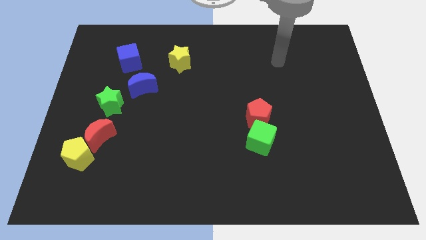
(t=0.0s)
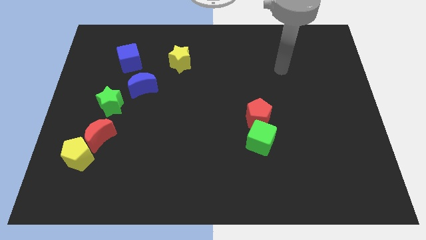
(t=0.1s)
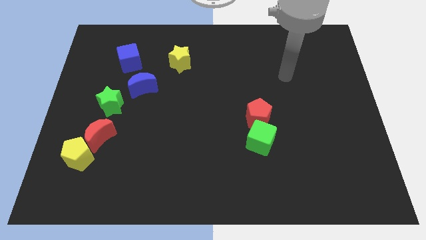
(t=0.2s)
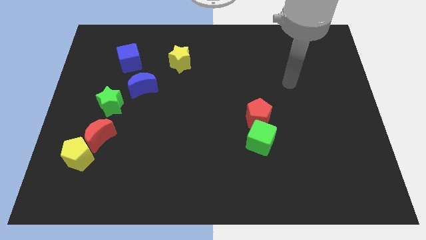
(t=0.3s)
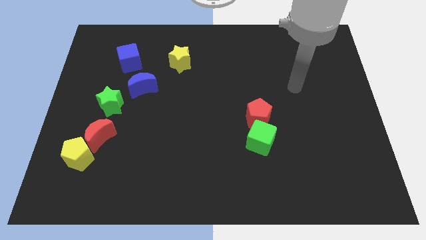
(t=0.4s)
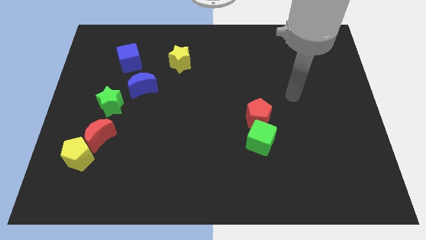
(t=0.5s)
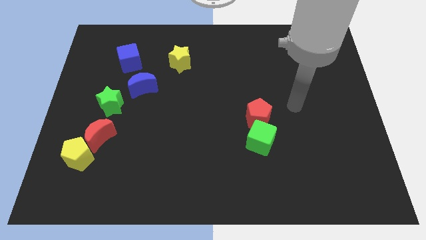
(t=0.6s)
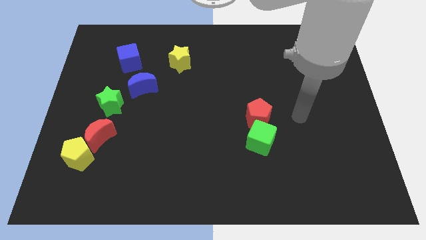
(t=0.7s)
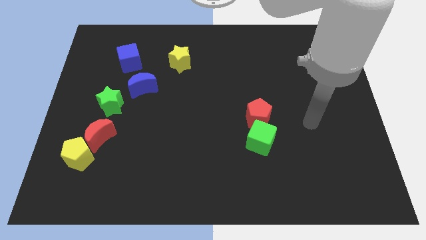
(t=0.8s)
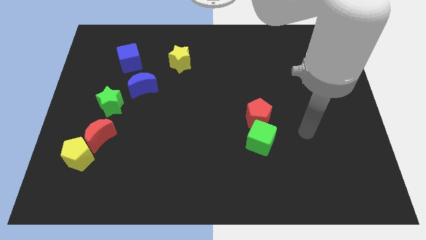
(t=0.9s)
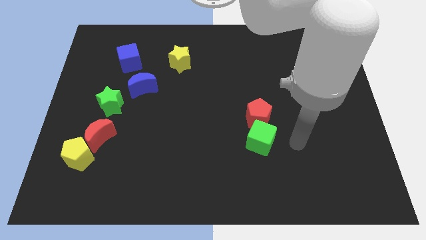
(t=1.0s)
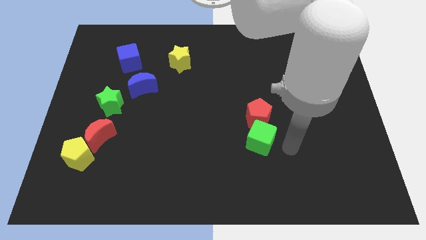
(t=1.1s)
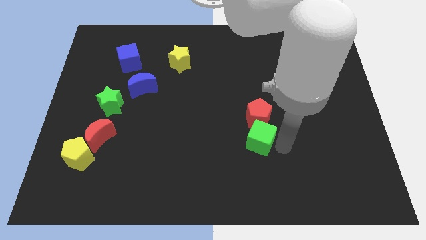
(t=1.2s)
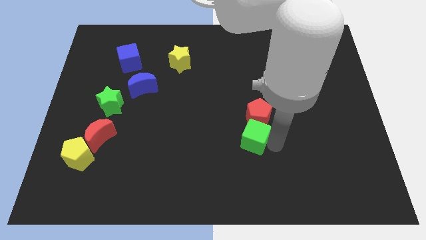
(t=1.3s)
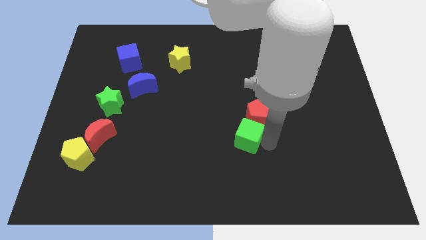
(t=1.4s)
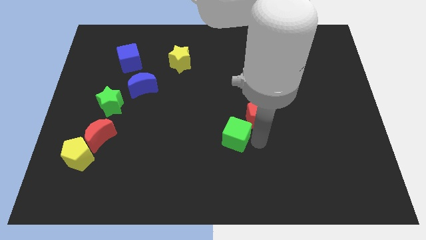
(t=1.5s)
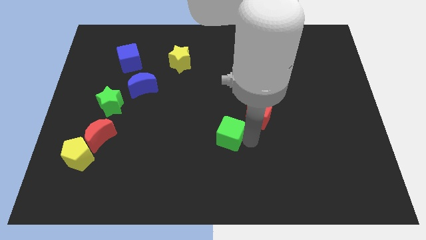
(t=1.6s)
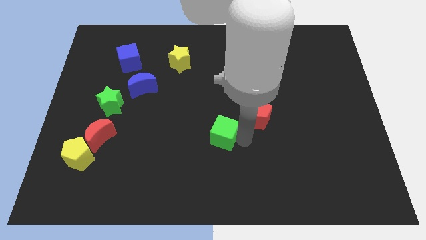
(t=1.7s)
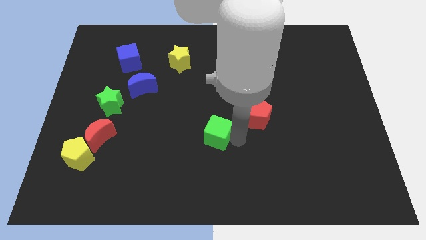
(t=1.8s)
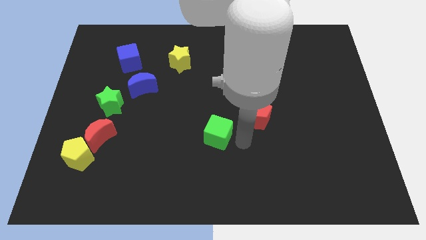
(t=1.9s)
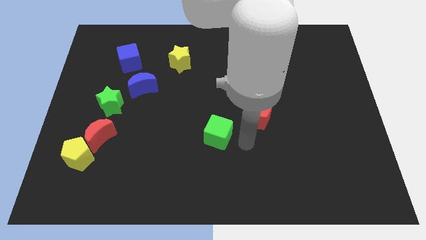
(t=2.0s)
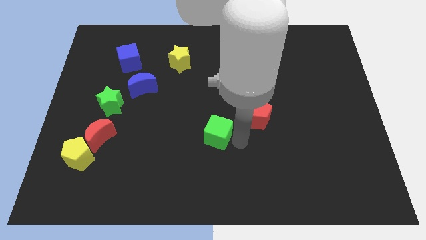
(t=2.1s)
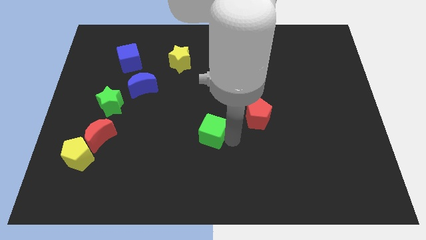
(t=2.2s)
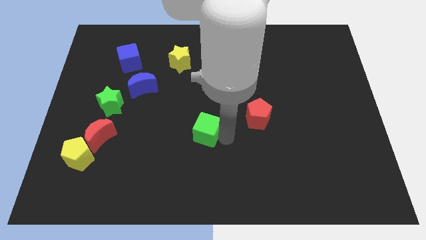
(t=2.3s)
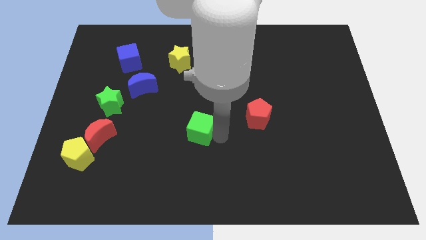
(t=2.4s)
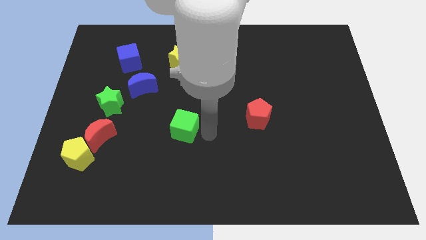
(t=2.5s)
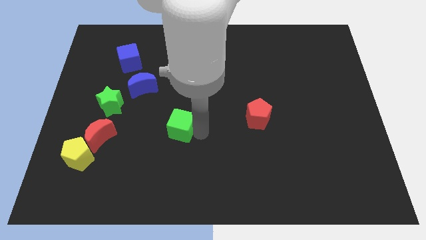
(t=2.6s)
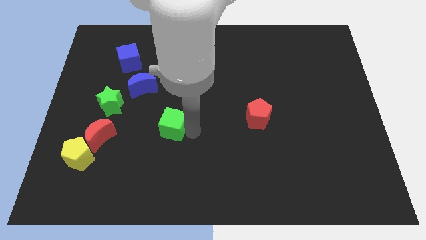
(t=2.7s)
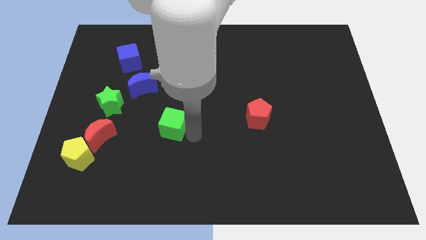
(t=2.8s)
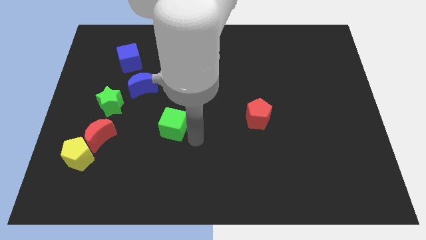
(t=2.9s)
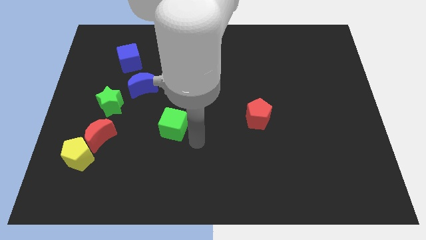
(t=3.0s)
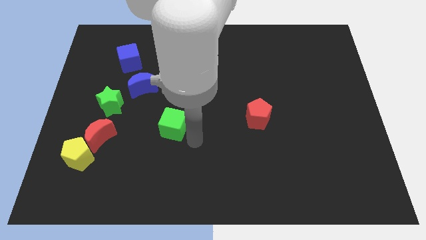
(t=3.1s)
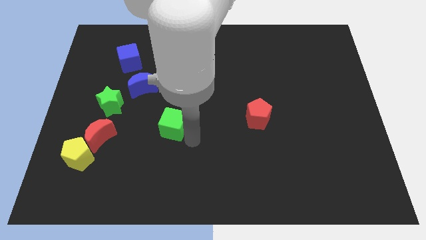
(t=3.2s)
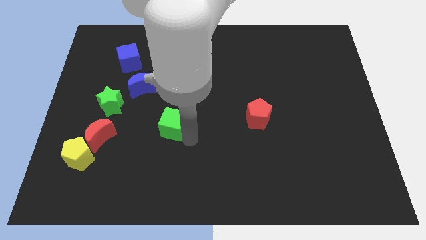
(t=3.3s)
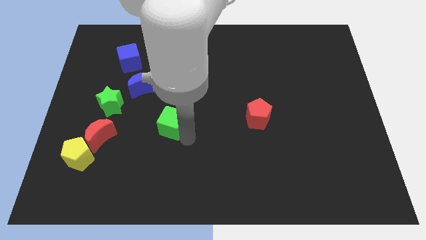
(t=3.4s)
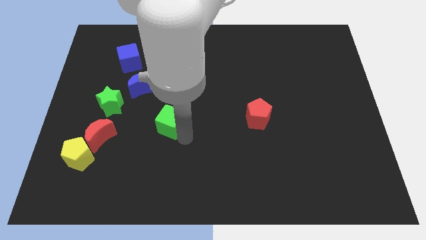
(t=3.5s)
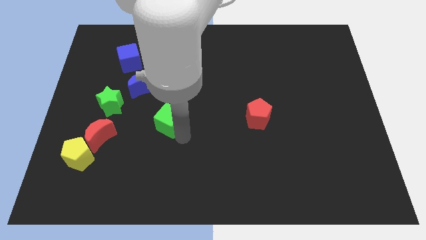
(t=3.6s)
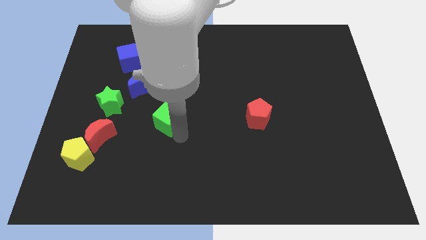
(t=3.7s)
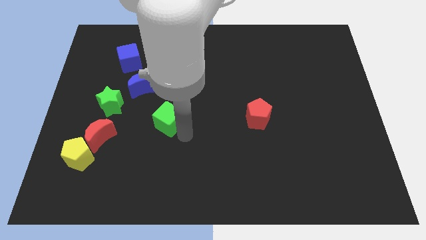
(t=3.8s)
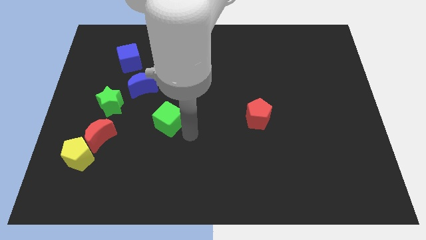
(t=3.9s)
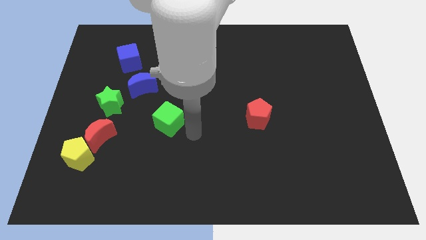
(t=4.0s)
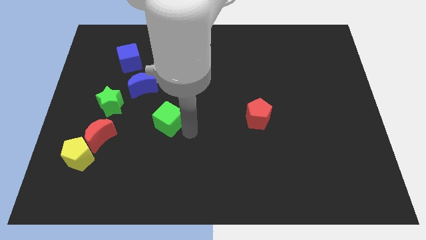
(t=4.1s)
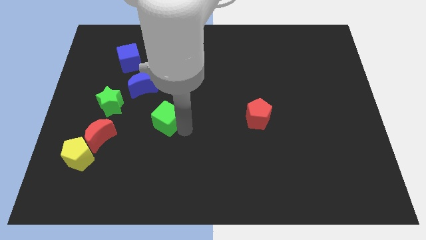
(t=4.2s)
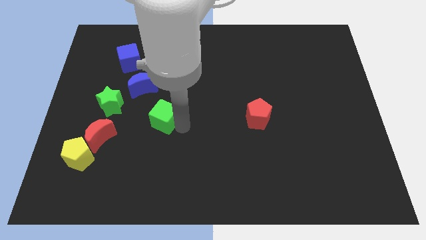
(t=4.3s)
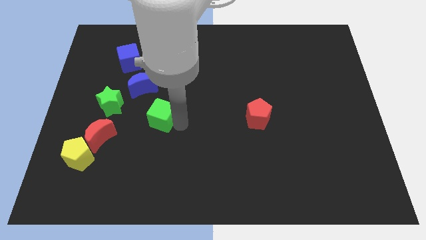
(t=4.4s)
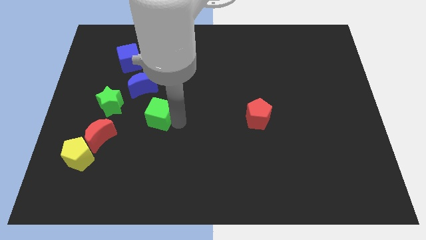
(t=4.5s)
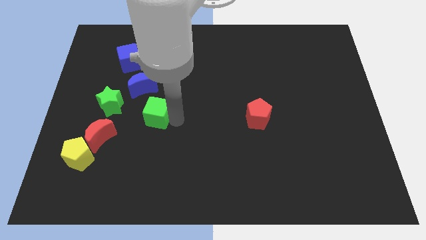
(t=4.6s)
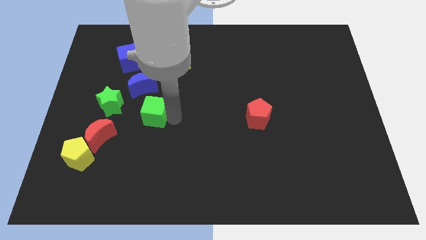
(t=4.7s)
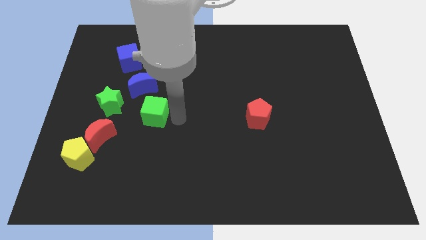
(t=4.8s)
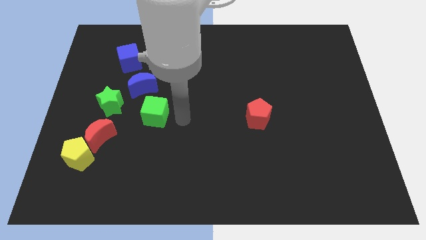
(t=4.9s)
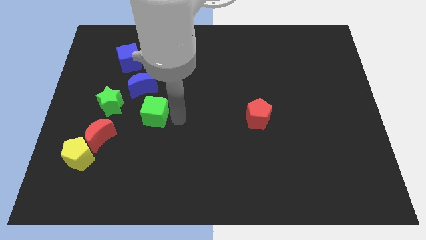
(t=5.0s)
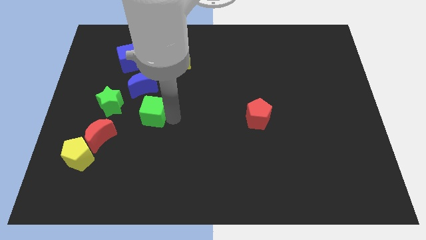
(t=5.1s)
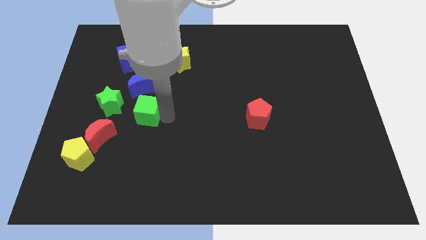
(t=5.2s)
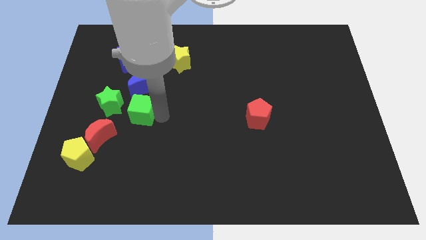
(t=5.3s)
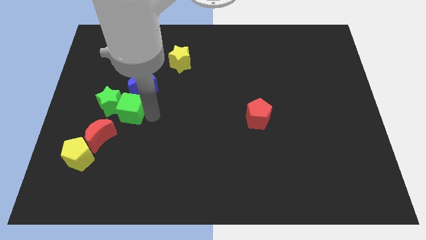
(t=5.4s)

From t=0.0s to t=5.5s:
move the green cube close to the green star

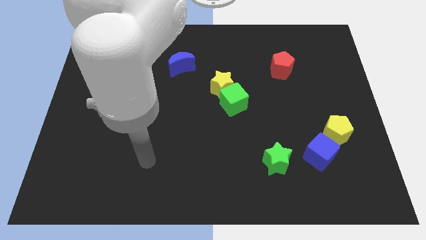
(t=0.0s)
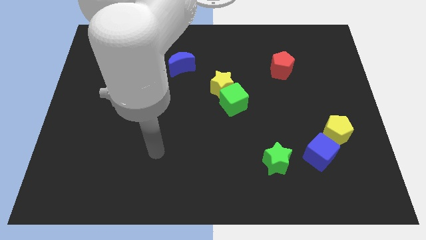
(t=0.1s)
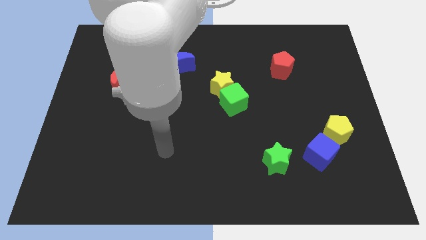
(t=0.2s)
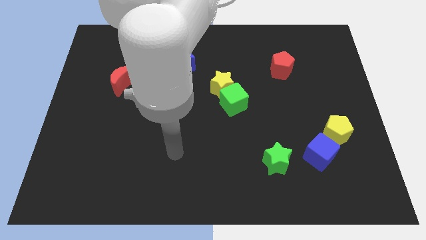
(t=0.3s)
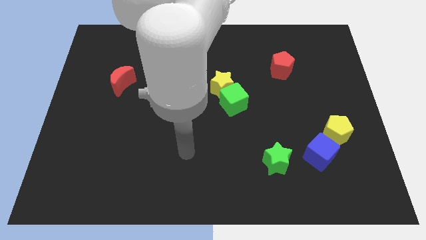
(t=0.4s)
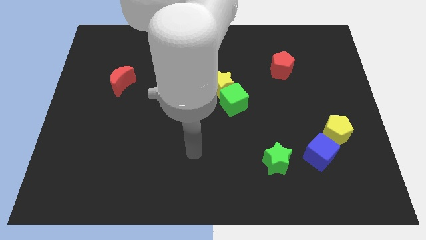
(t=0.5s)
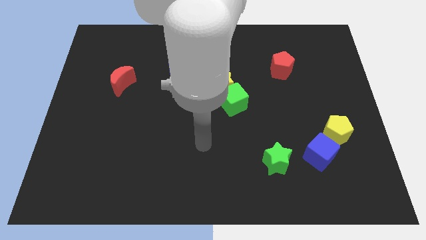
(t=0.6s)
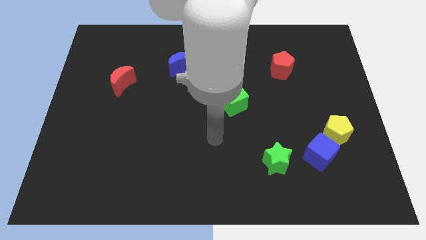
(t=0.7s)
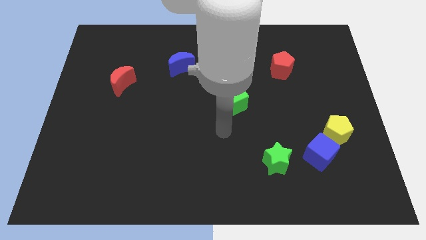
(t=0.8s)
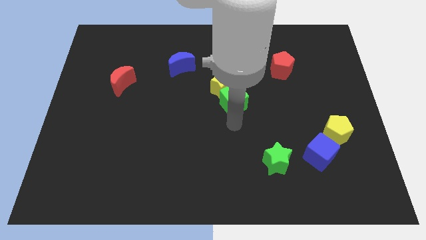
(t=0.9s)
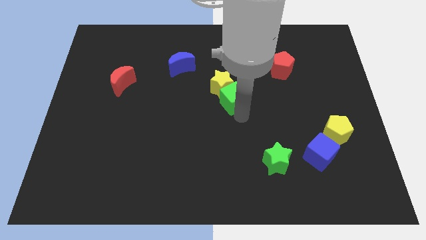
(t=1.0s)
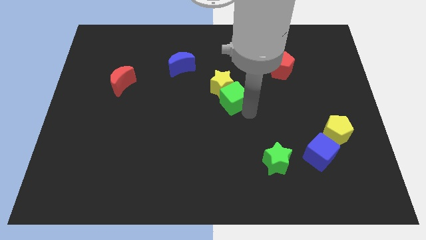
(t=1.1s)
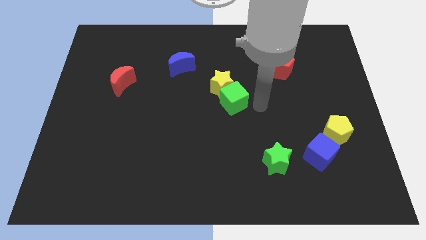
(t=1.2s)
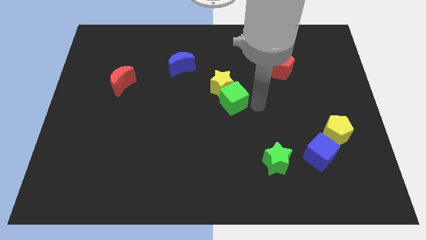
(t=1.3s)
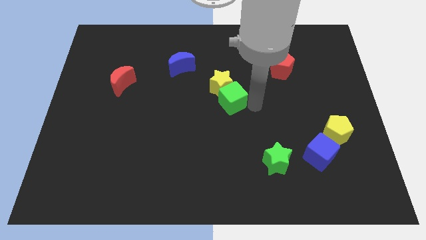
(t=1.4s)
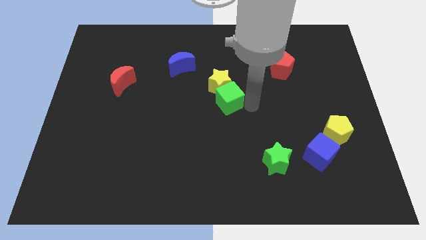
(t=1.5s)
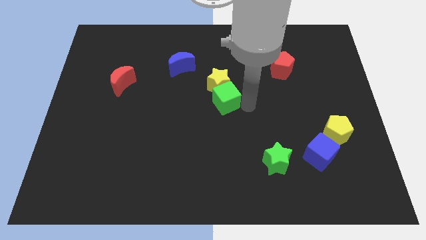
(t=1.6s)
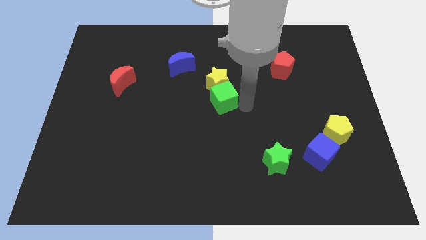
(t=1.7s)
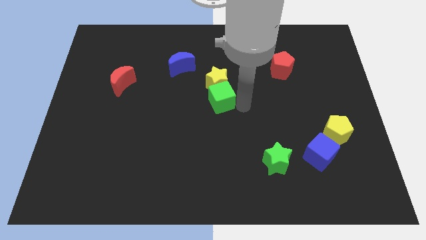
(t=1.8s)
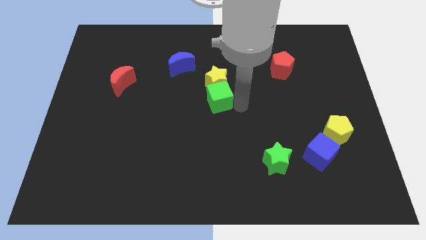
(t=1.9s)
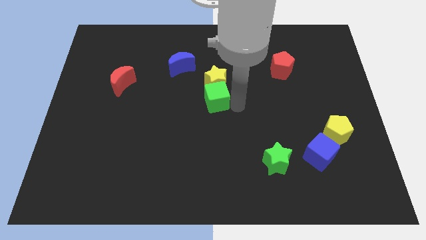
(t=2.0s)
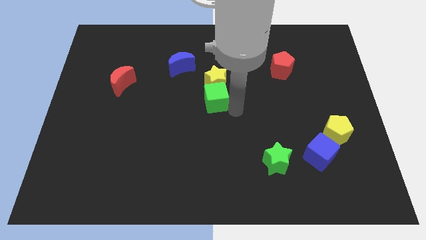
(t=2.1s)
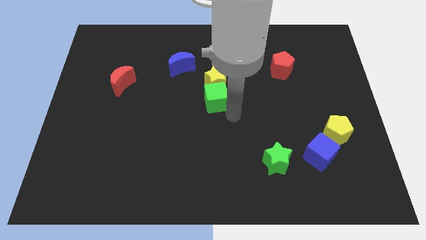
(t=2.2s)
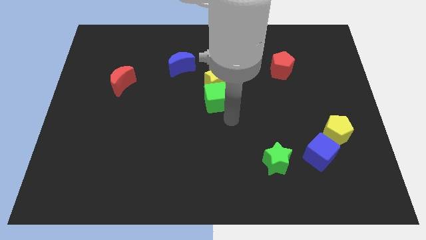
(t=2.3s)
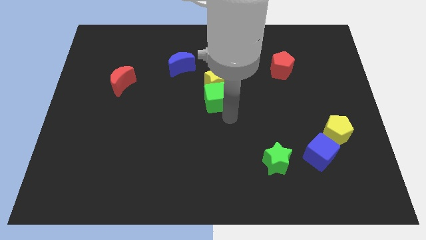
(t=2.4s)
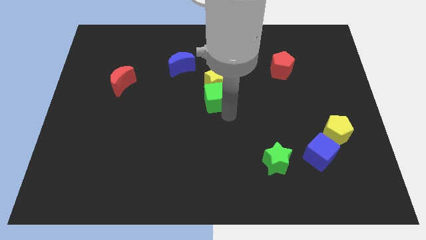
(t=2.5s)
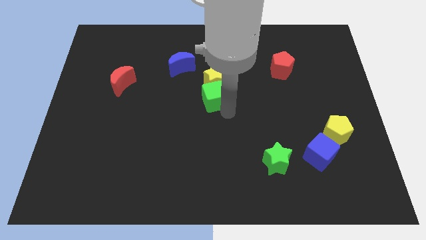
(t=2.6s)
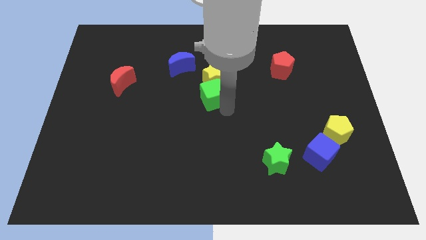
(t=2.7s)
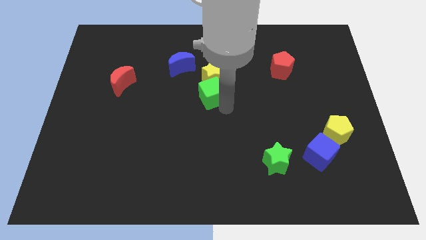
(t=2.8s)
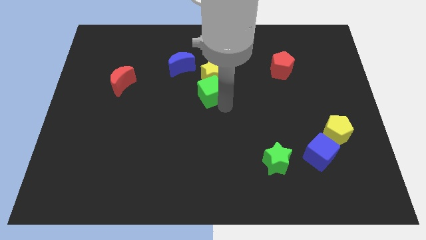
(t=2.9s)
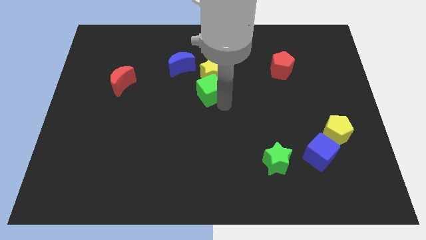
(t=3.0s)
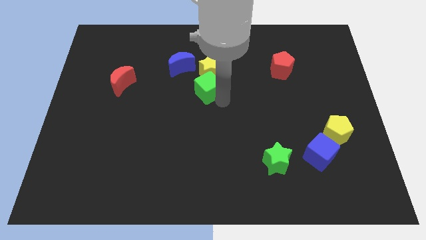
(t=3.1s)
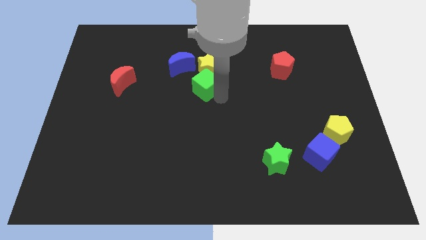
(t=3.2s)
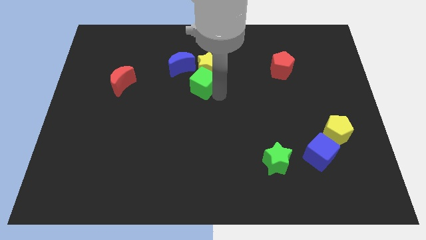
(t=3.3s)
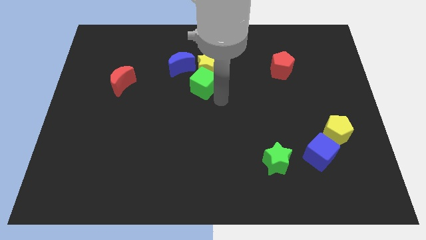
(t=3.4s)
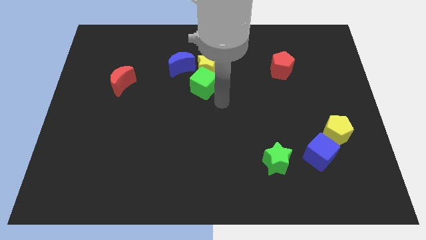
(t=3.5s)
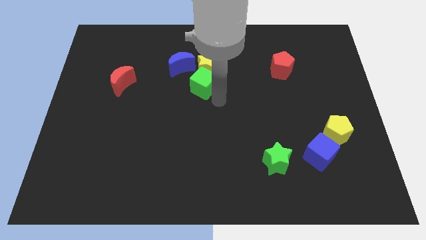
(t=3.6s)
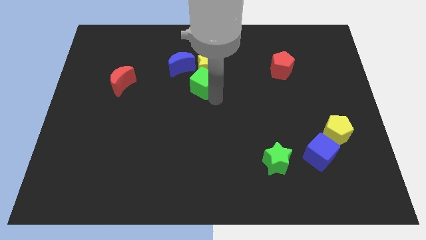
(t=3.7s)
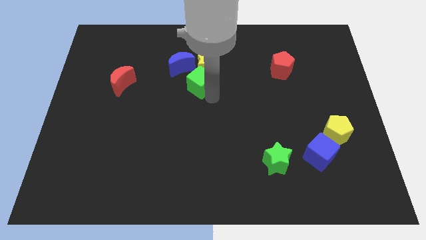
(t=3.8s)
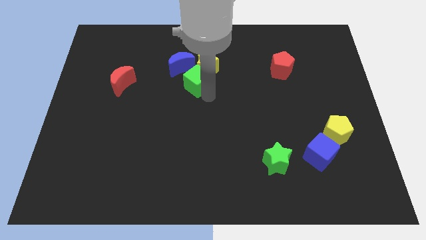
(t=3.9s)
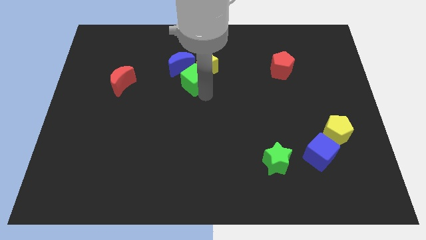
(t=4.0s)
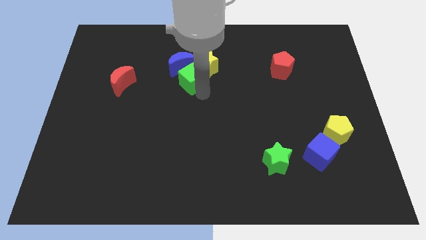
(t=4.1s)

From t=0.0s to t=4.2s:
move the green cube next to the blue moon
